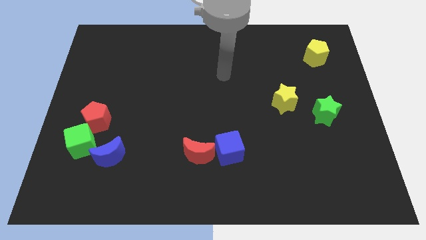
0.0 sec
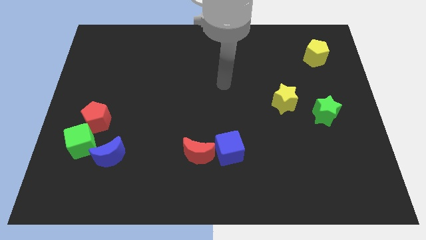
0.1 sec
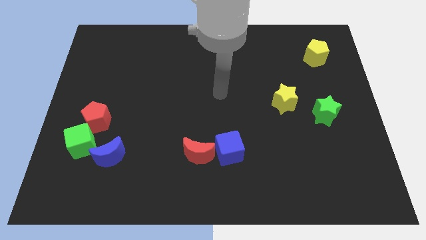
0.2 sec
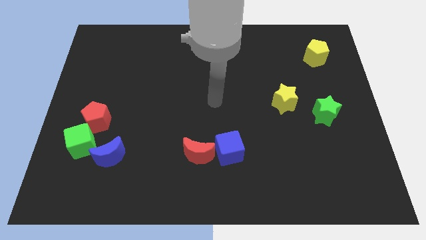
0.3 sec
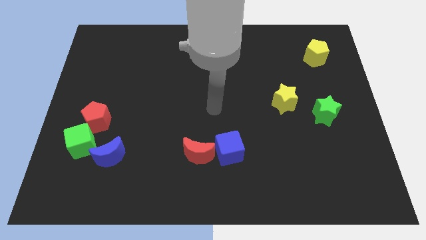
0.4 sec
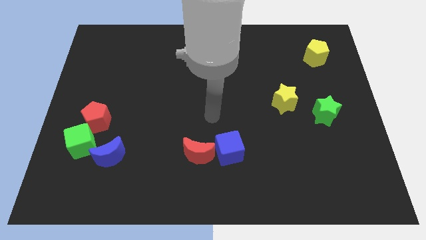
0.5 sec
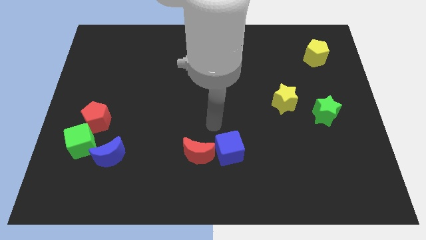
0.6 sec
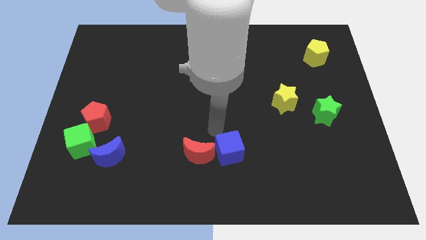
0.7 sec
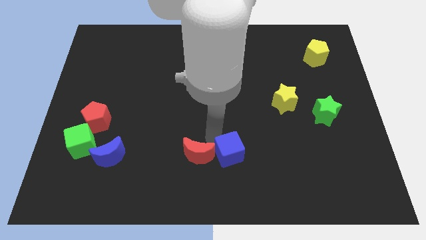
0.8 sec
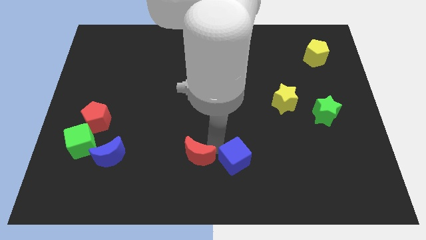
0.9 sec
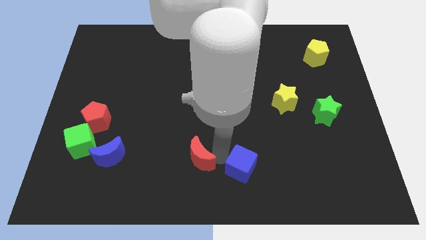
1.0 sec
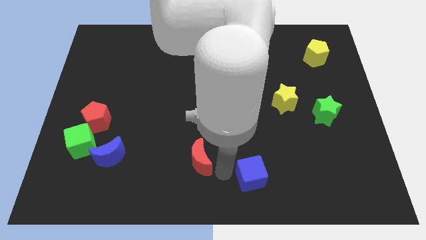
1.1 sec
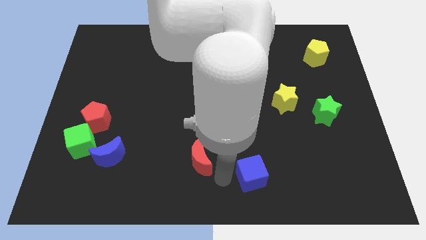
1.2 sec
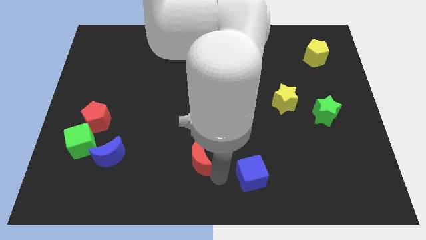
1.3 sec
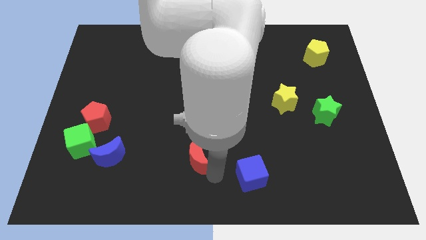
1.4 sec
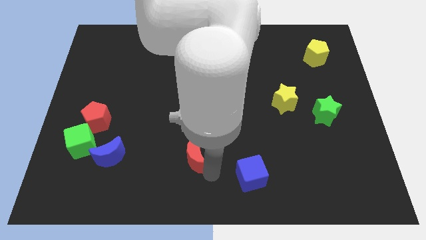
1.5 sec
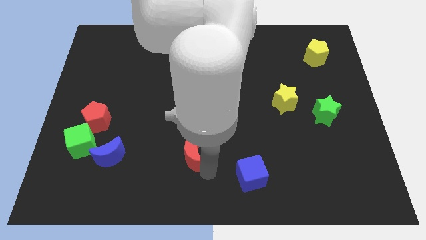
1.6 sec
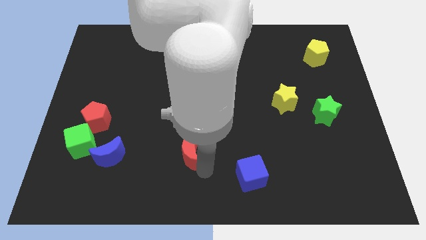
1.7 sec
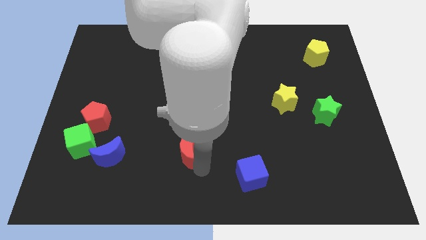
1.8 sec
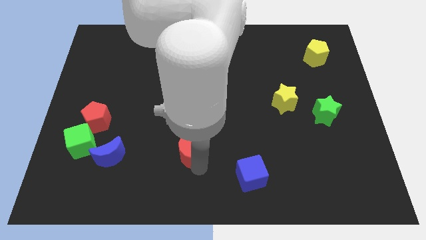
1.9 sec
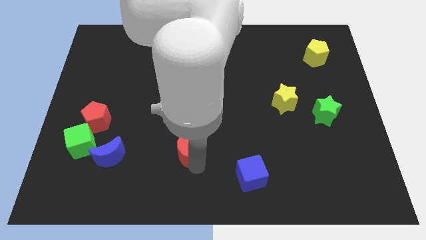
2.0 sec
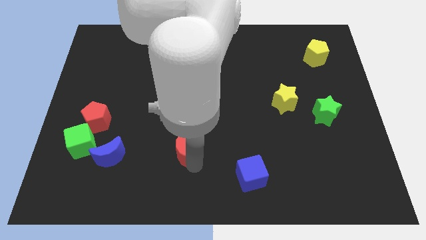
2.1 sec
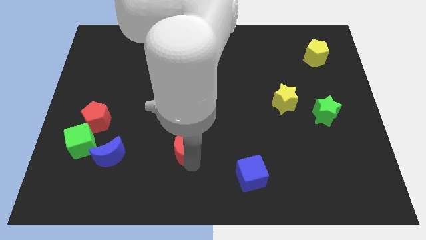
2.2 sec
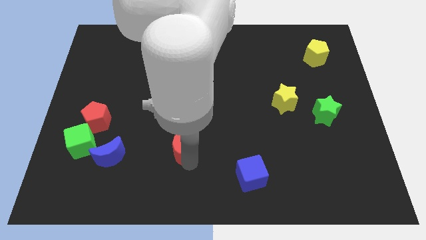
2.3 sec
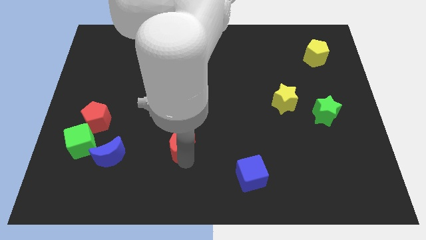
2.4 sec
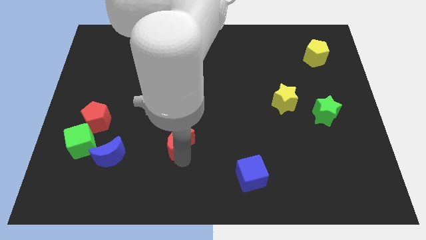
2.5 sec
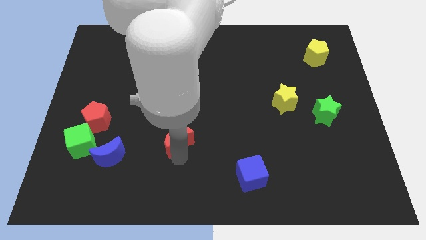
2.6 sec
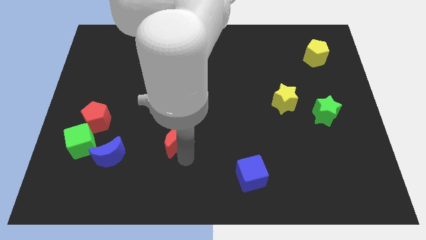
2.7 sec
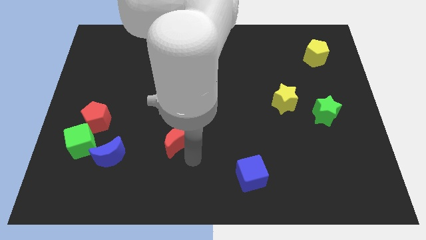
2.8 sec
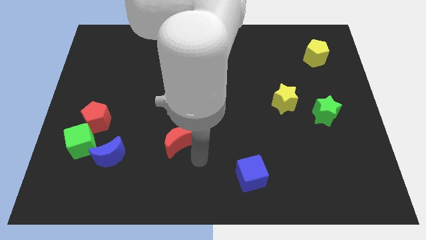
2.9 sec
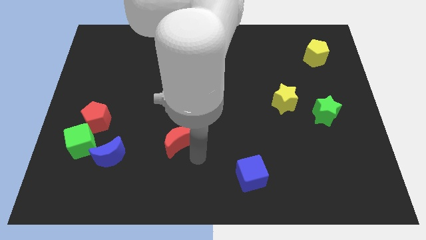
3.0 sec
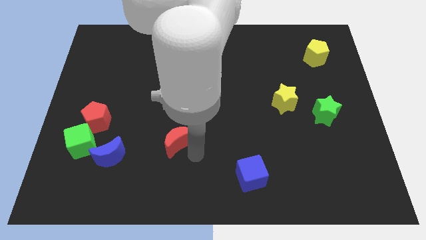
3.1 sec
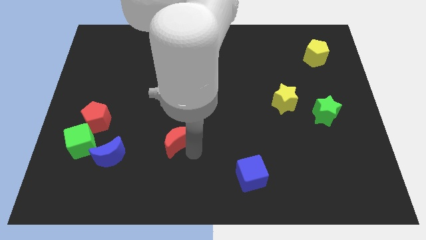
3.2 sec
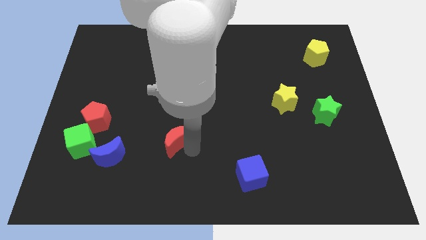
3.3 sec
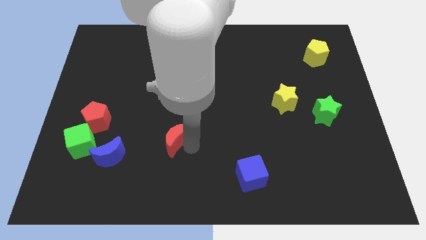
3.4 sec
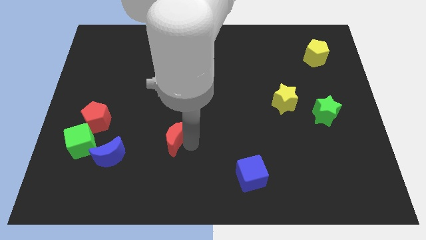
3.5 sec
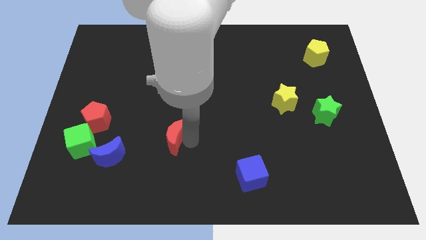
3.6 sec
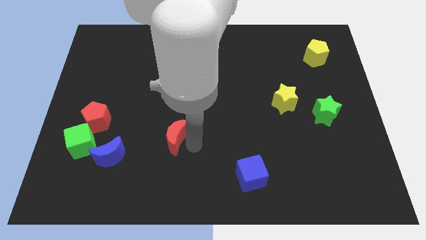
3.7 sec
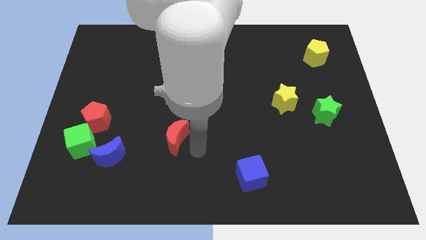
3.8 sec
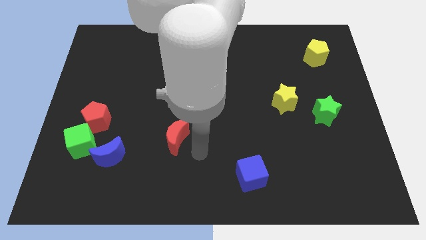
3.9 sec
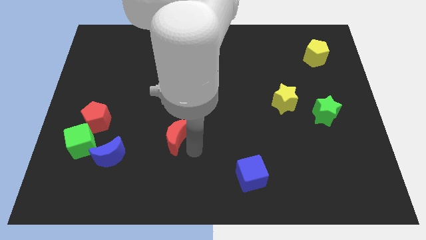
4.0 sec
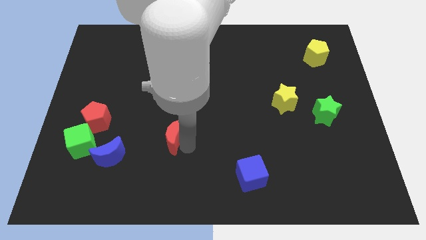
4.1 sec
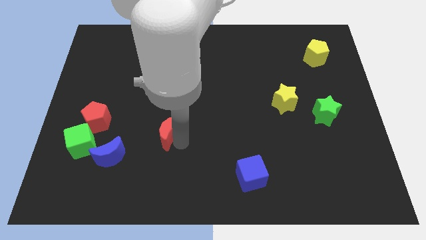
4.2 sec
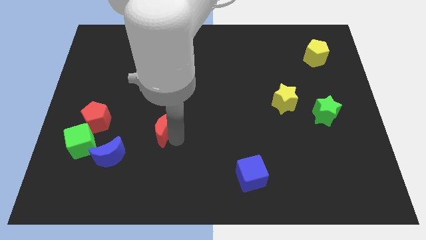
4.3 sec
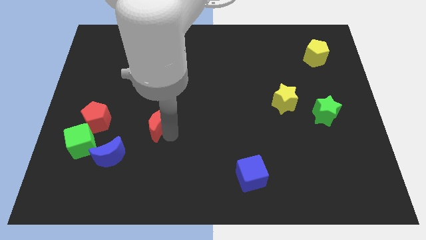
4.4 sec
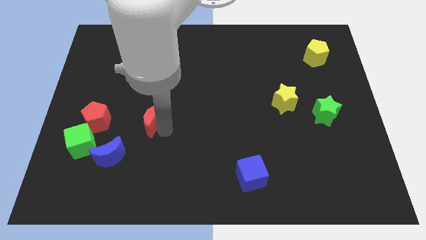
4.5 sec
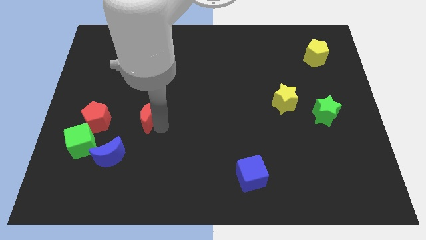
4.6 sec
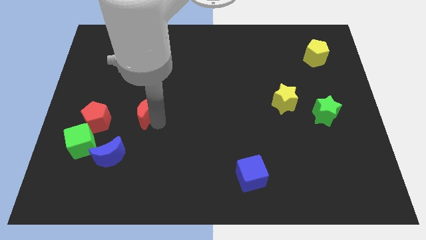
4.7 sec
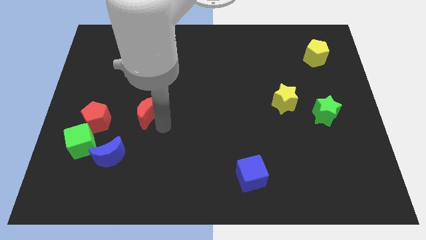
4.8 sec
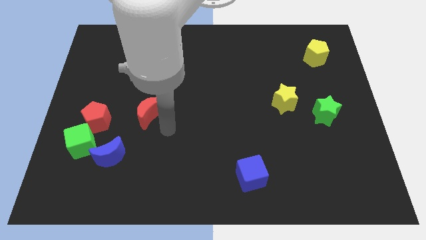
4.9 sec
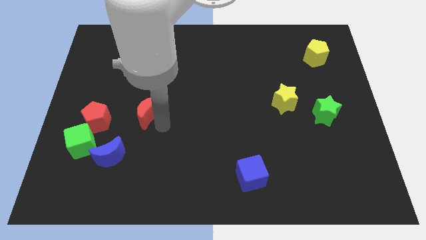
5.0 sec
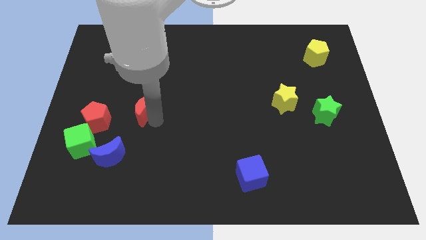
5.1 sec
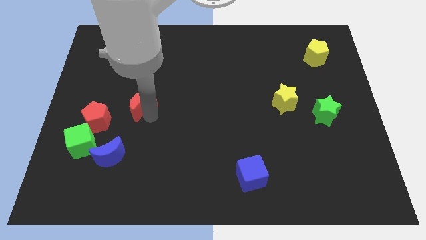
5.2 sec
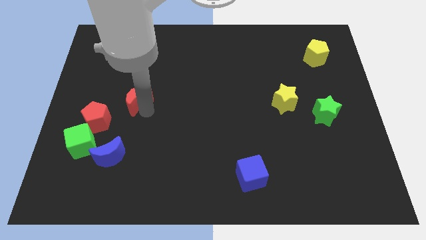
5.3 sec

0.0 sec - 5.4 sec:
move the red moon diagonally upwards and left

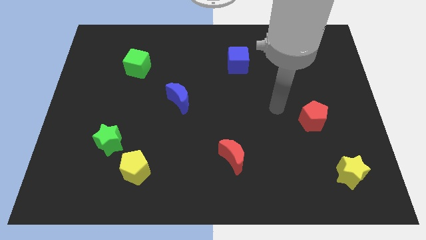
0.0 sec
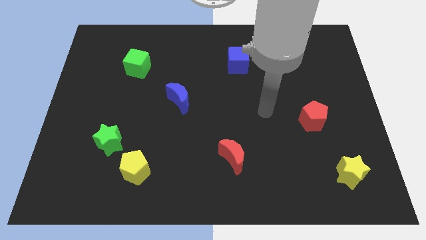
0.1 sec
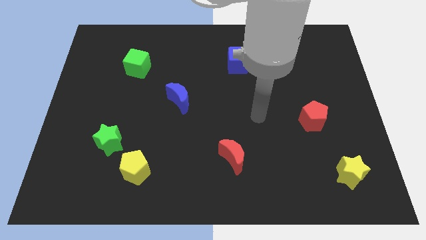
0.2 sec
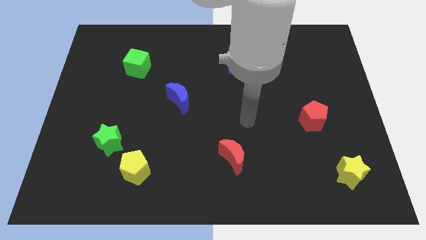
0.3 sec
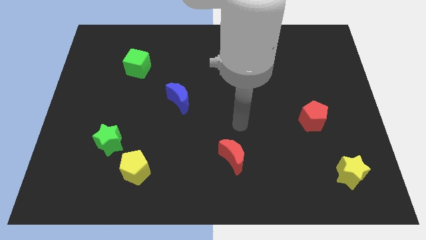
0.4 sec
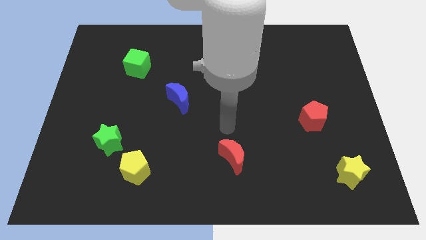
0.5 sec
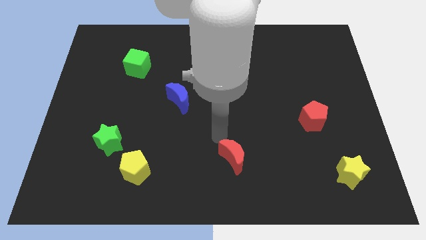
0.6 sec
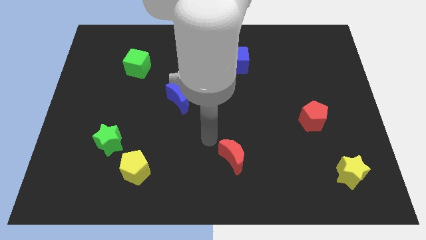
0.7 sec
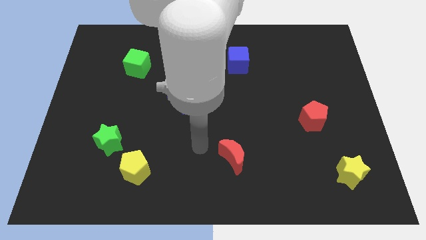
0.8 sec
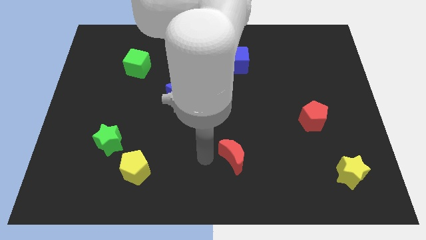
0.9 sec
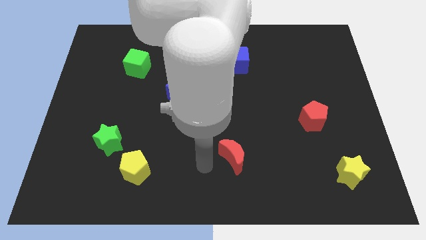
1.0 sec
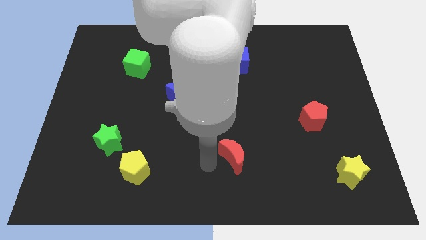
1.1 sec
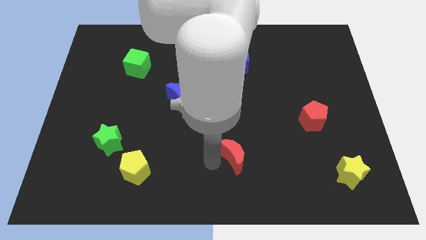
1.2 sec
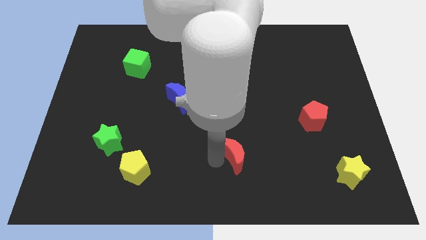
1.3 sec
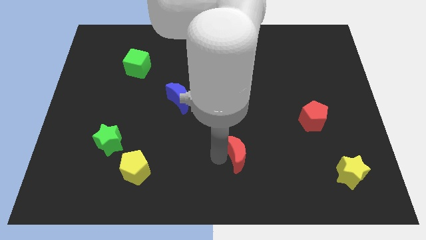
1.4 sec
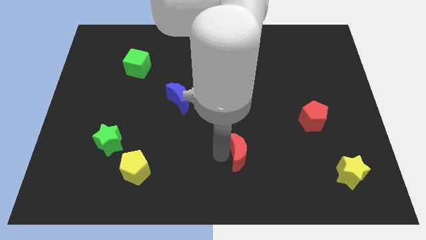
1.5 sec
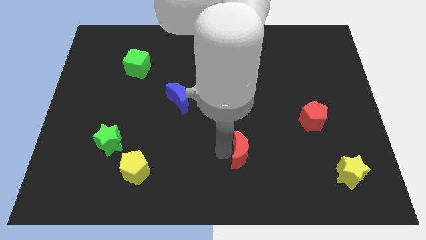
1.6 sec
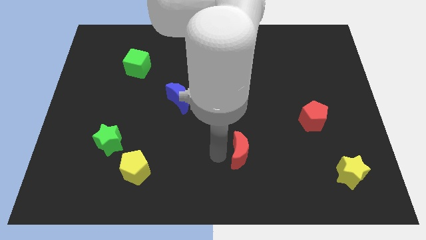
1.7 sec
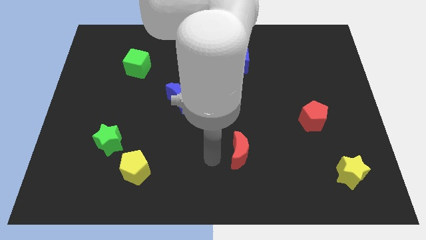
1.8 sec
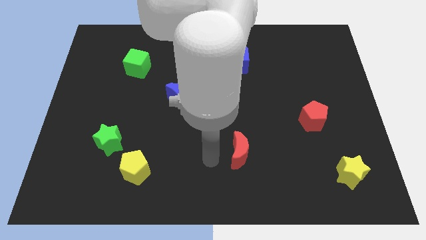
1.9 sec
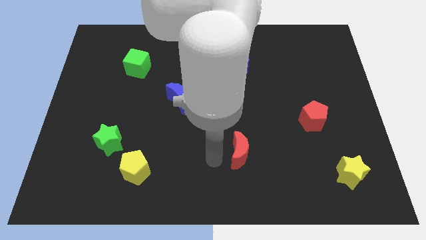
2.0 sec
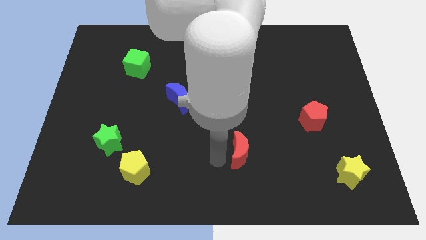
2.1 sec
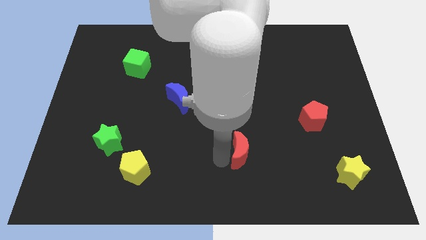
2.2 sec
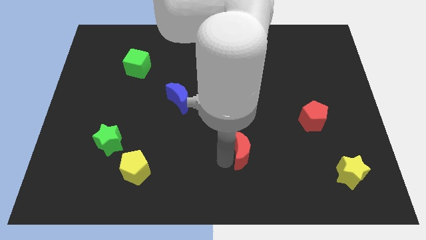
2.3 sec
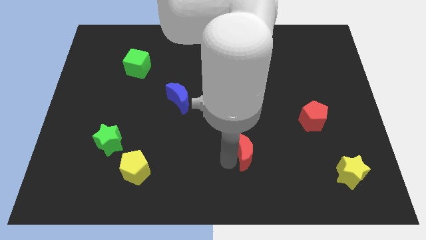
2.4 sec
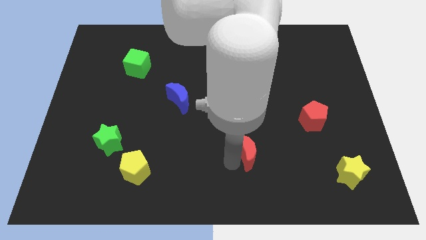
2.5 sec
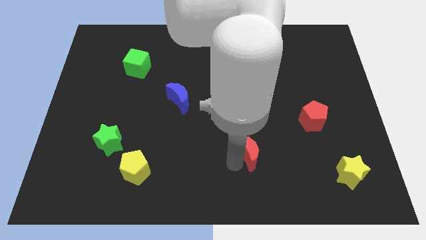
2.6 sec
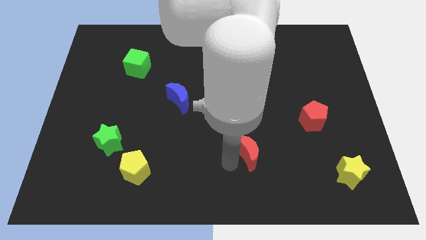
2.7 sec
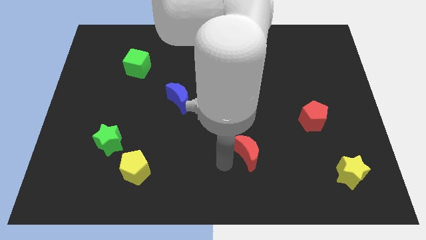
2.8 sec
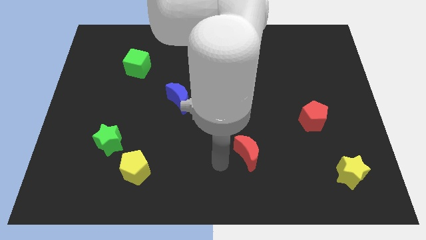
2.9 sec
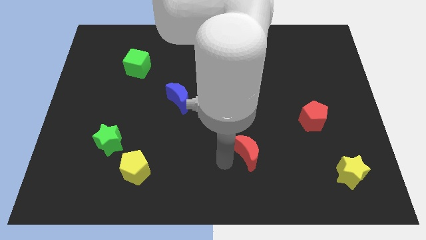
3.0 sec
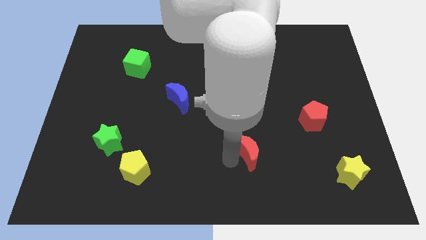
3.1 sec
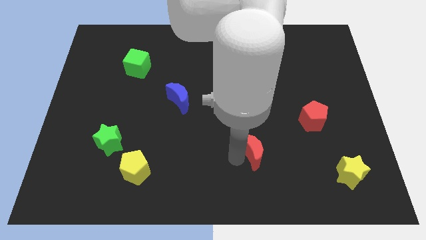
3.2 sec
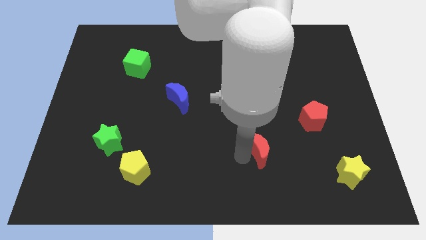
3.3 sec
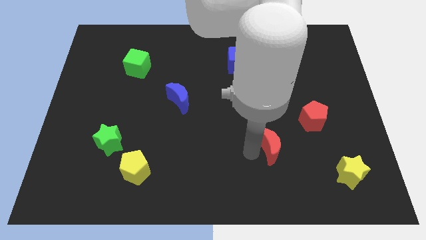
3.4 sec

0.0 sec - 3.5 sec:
move the red moon to the right slightly
